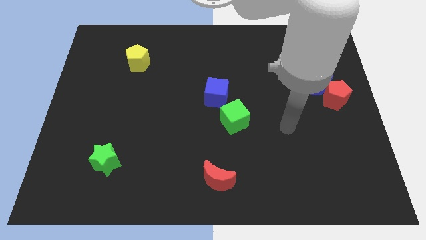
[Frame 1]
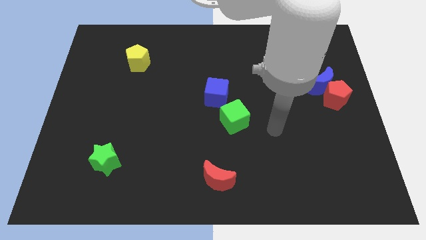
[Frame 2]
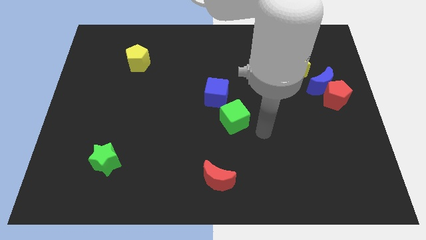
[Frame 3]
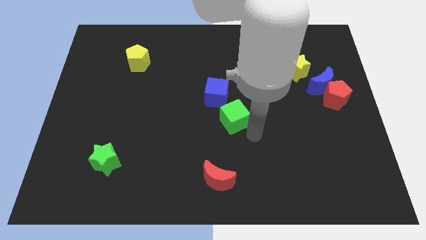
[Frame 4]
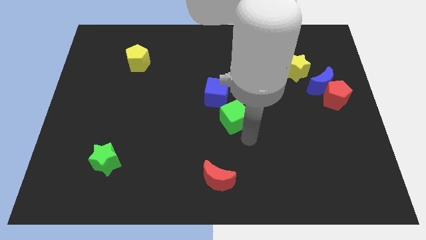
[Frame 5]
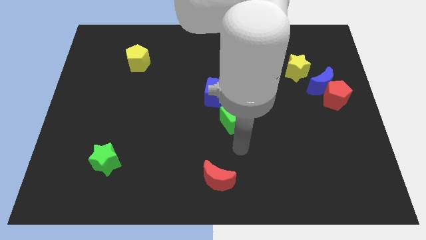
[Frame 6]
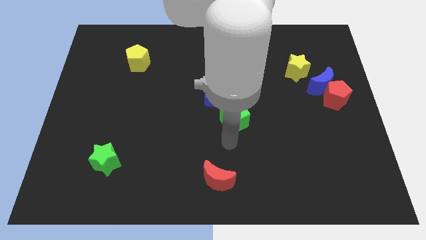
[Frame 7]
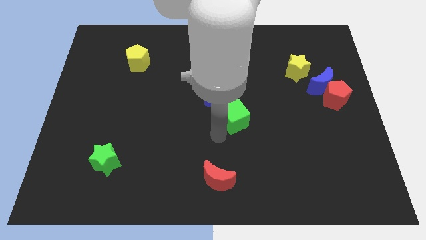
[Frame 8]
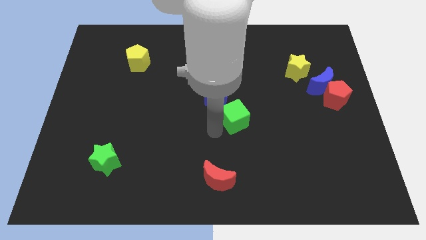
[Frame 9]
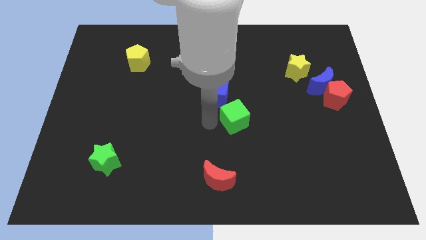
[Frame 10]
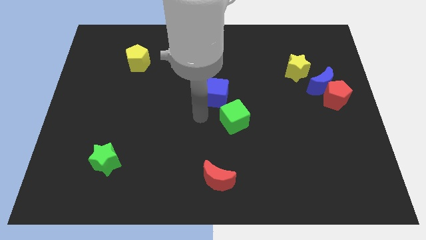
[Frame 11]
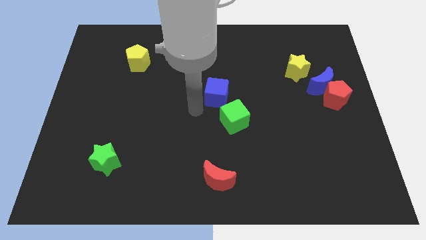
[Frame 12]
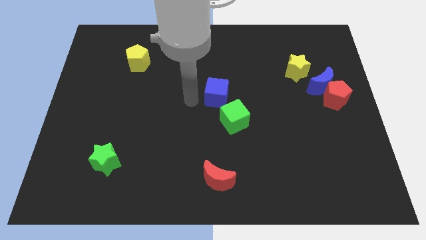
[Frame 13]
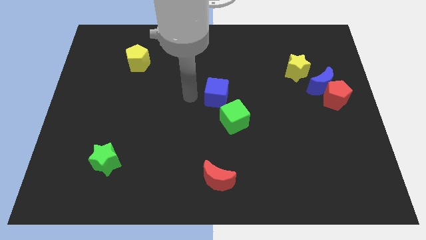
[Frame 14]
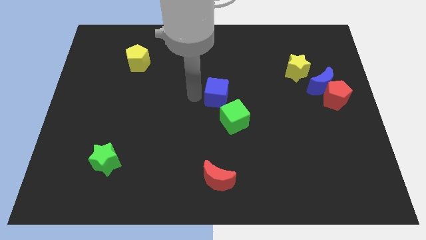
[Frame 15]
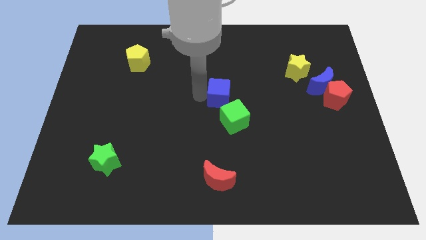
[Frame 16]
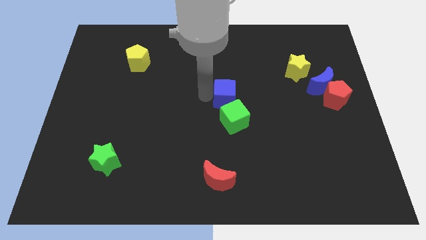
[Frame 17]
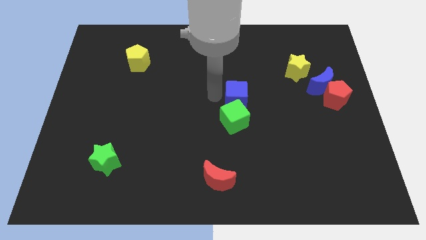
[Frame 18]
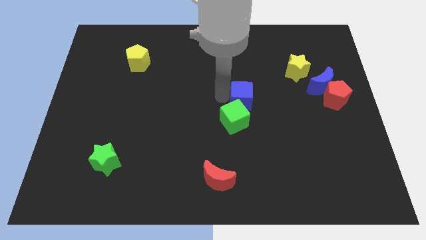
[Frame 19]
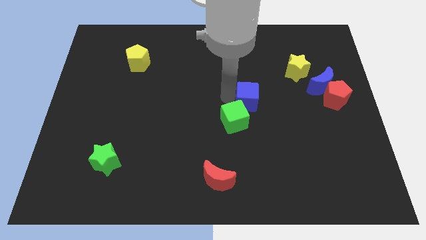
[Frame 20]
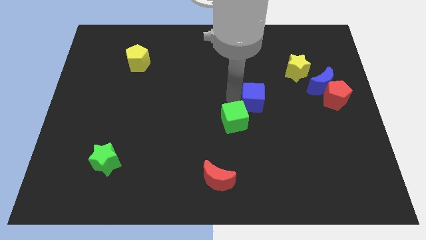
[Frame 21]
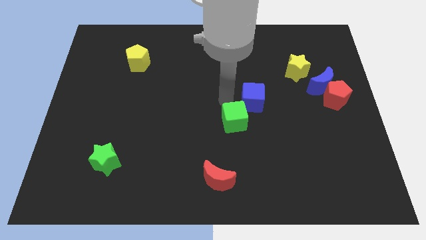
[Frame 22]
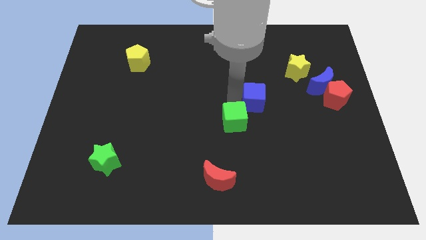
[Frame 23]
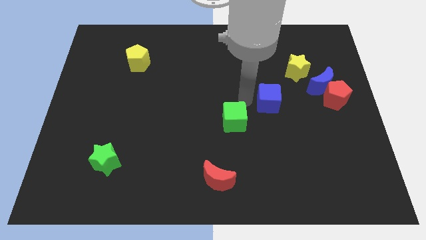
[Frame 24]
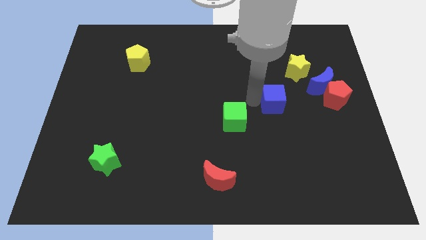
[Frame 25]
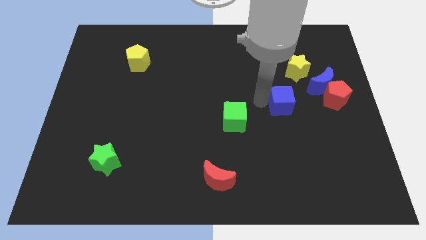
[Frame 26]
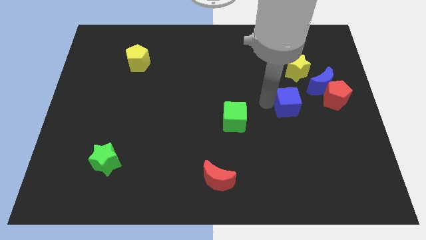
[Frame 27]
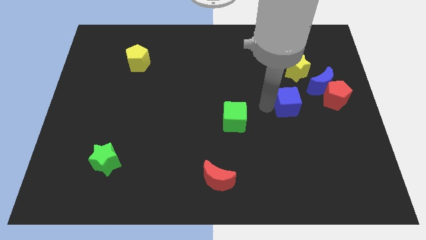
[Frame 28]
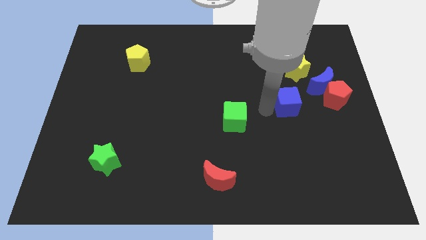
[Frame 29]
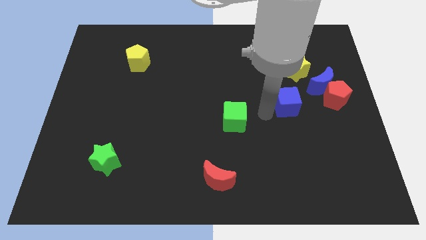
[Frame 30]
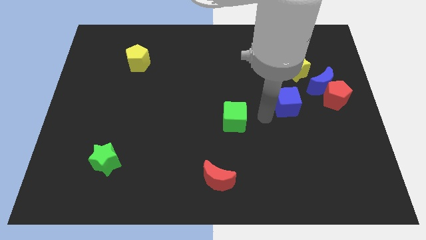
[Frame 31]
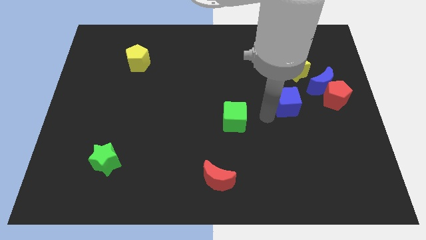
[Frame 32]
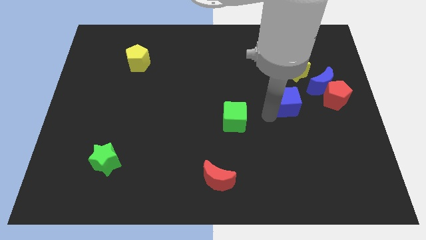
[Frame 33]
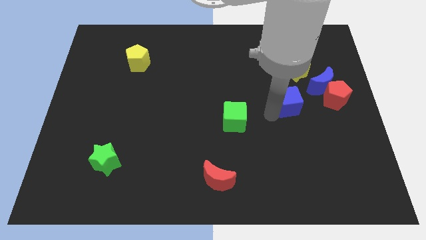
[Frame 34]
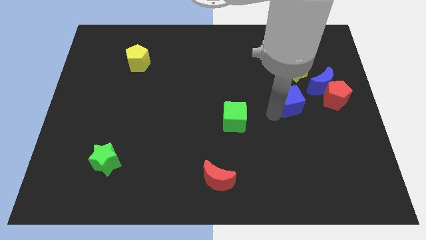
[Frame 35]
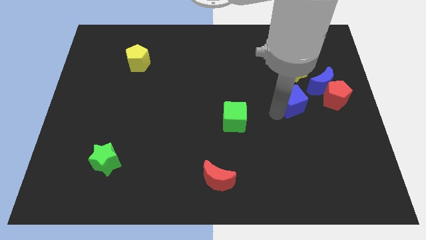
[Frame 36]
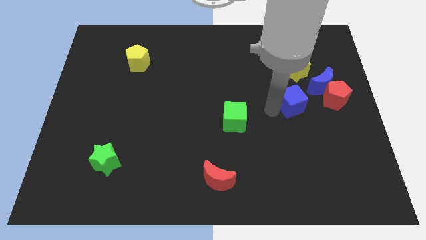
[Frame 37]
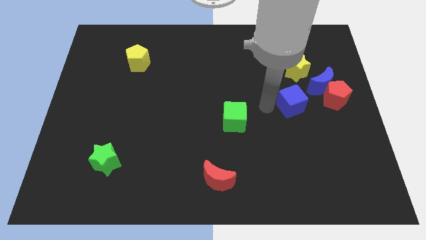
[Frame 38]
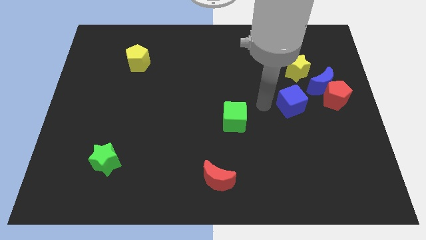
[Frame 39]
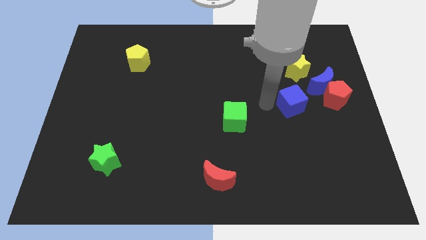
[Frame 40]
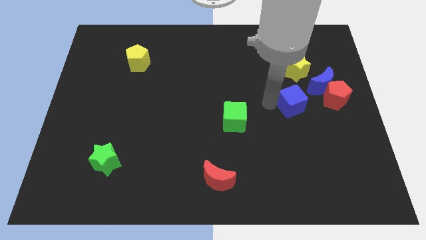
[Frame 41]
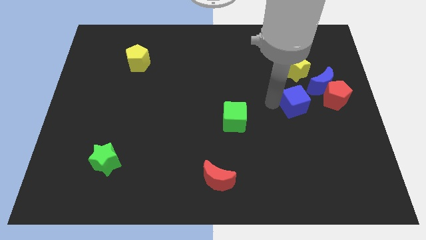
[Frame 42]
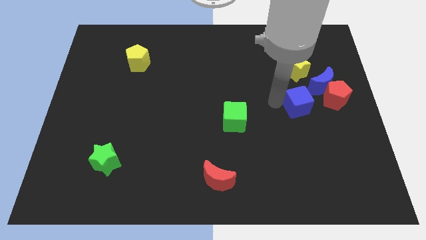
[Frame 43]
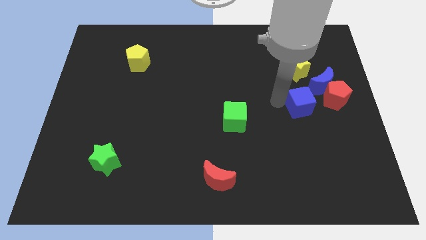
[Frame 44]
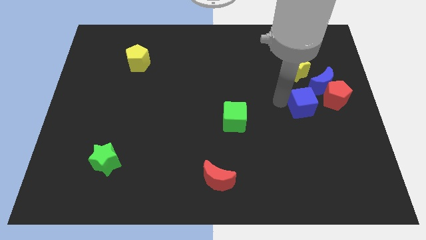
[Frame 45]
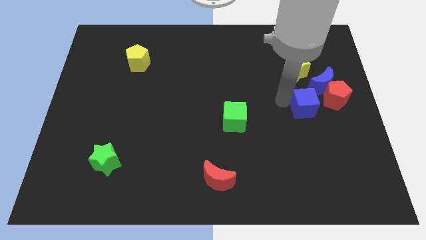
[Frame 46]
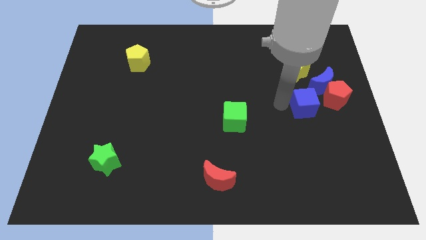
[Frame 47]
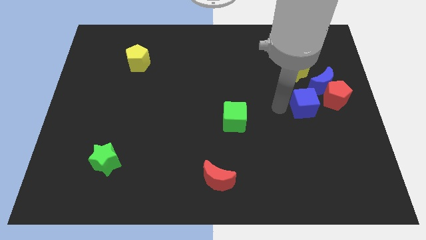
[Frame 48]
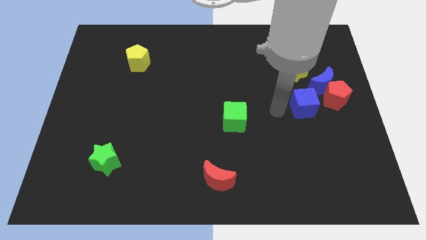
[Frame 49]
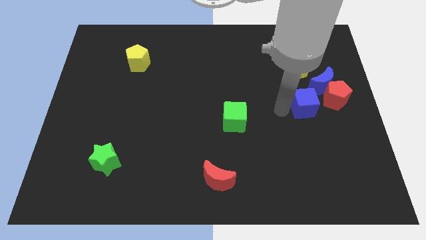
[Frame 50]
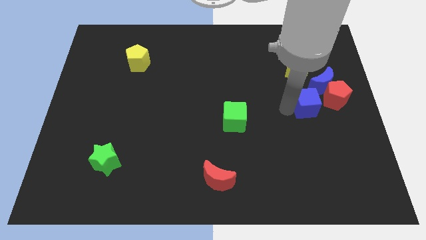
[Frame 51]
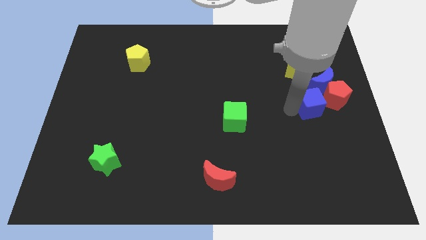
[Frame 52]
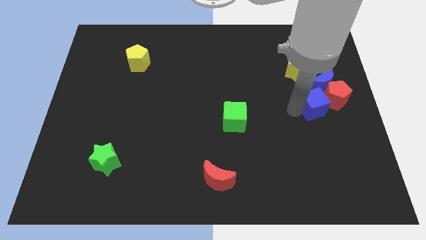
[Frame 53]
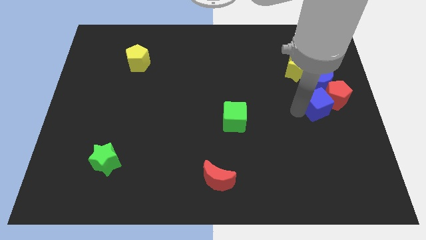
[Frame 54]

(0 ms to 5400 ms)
slide the blue cube towards the red pentagon

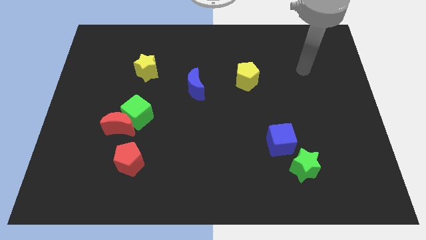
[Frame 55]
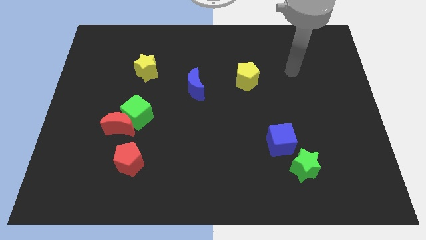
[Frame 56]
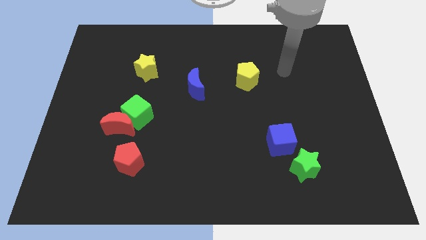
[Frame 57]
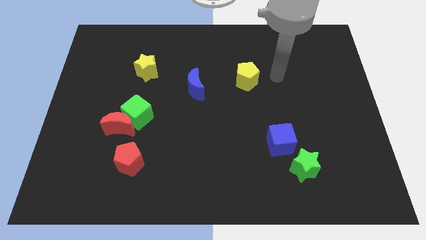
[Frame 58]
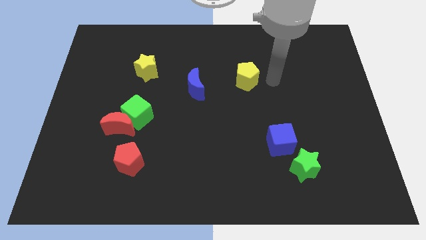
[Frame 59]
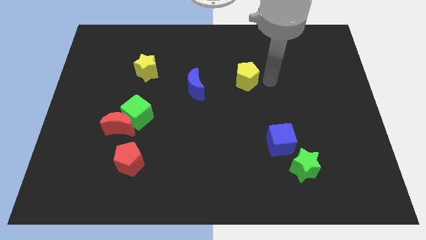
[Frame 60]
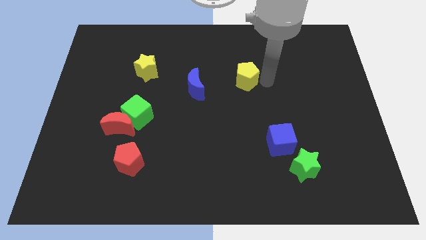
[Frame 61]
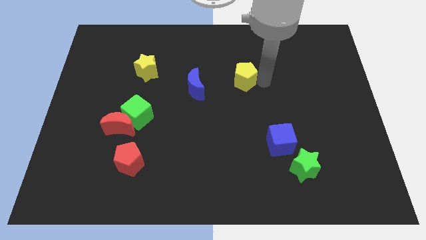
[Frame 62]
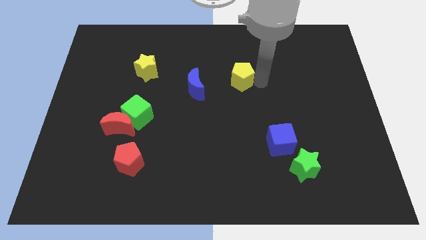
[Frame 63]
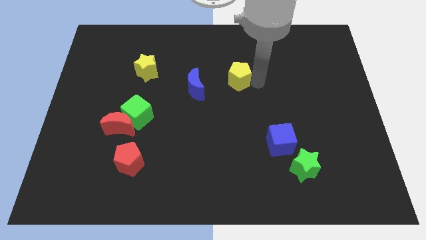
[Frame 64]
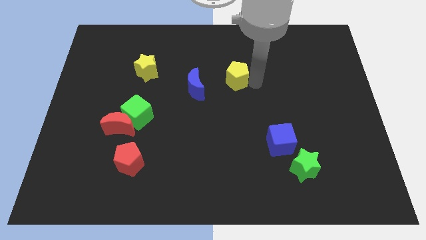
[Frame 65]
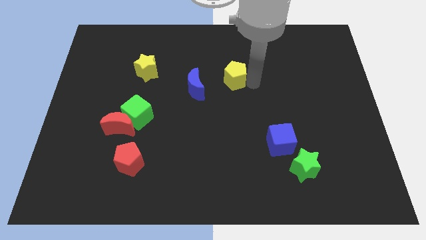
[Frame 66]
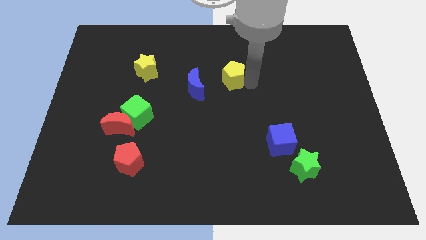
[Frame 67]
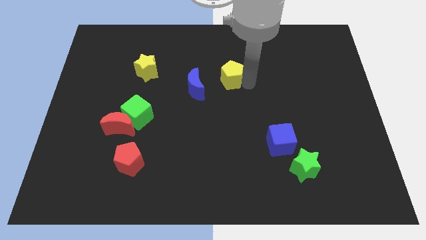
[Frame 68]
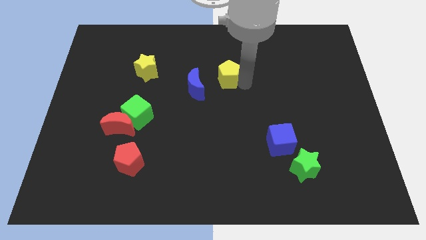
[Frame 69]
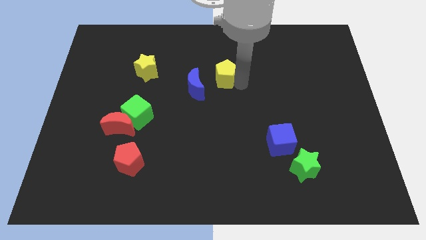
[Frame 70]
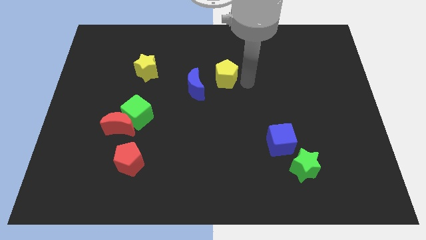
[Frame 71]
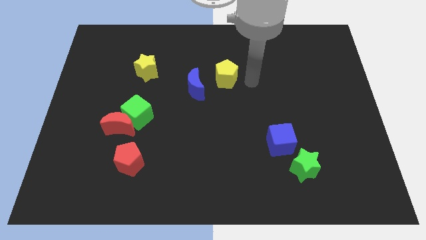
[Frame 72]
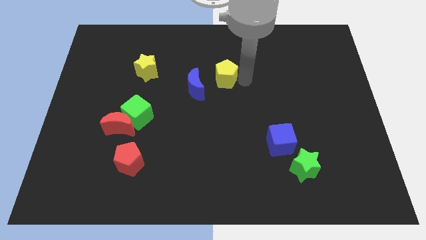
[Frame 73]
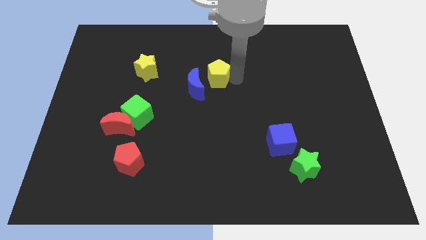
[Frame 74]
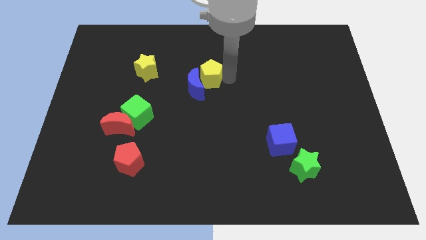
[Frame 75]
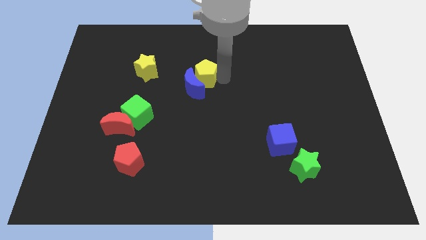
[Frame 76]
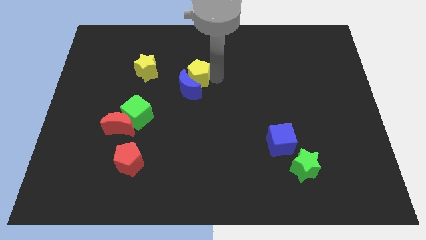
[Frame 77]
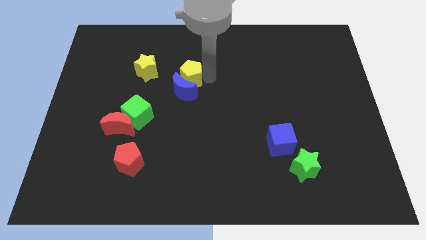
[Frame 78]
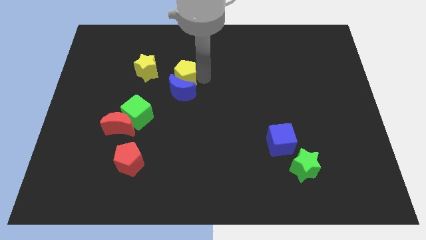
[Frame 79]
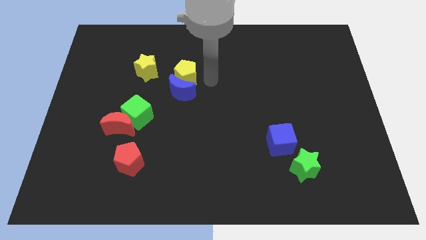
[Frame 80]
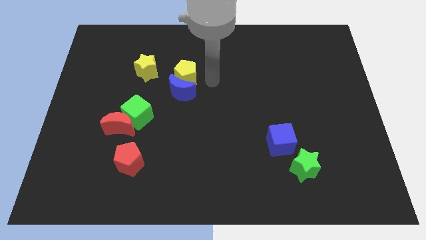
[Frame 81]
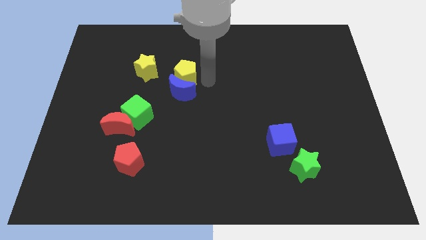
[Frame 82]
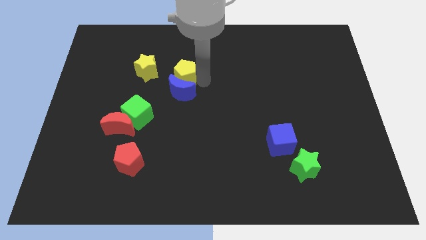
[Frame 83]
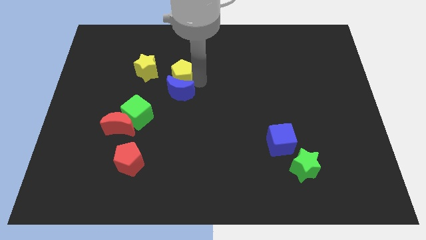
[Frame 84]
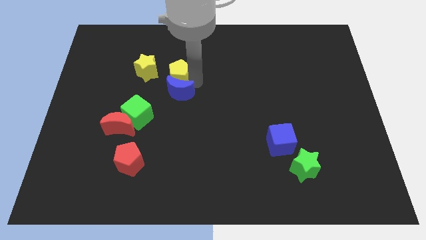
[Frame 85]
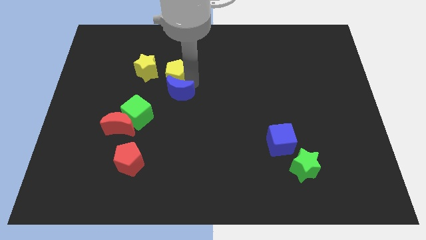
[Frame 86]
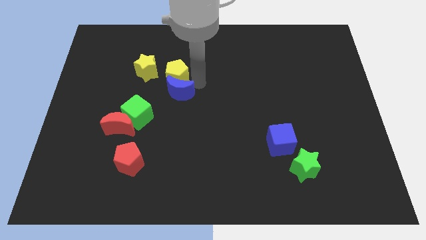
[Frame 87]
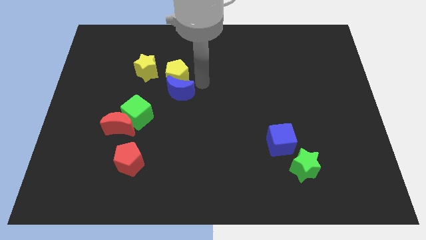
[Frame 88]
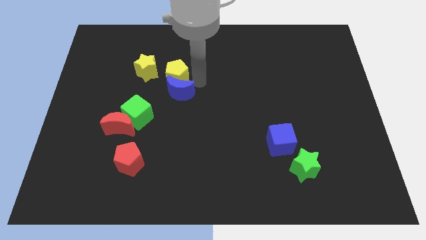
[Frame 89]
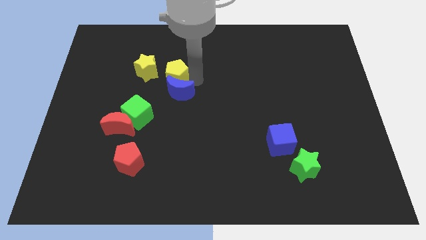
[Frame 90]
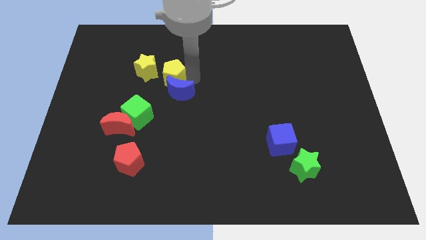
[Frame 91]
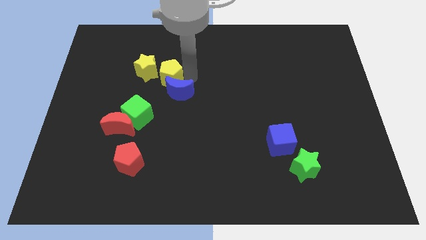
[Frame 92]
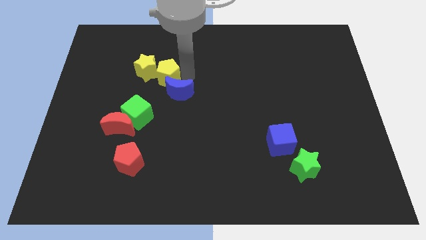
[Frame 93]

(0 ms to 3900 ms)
move the yellow pentagon close to the yellow star
